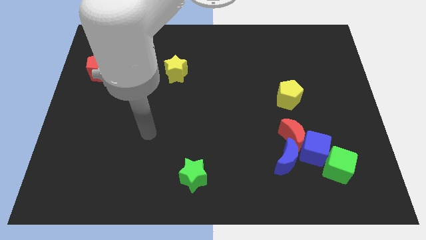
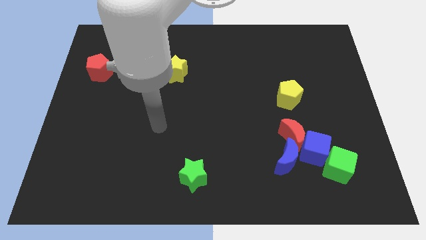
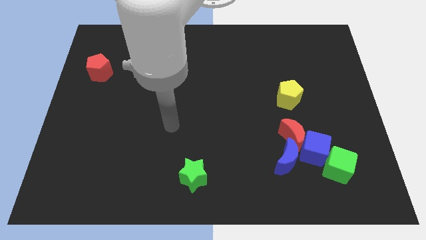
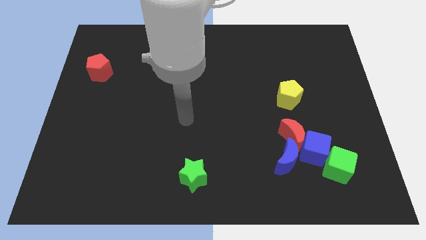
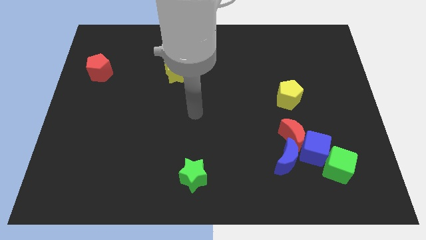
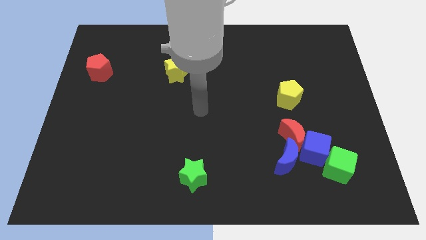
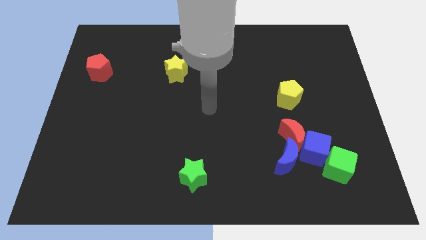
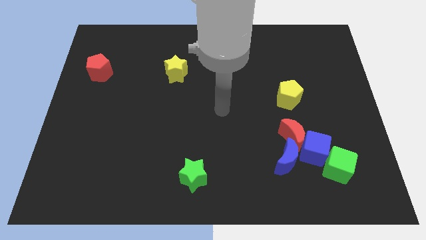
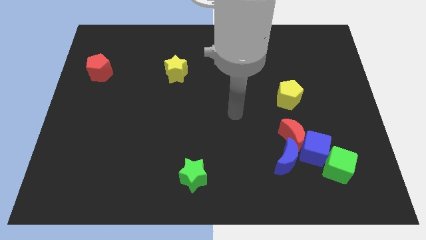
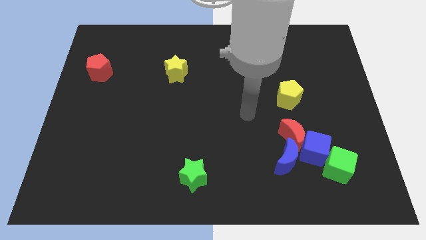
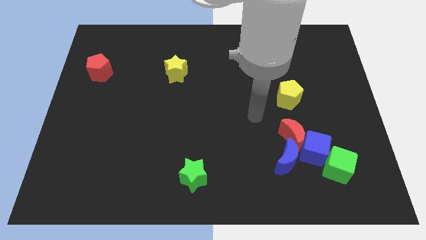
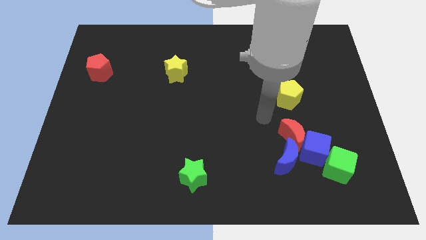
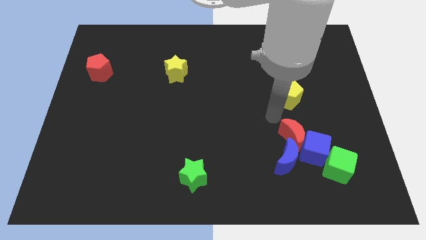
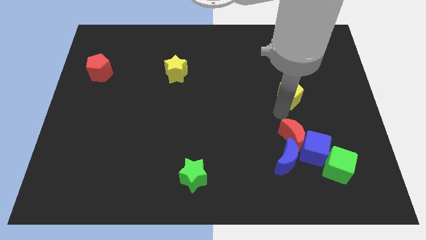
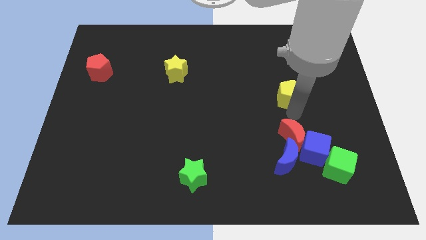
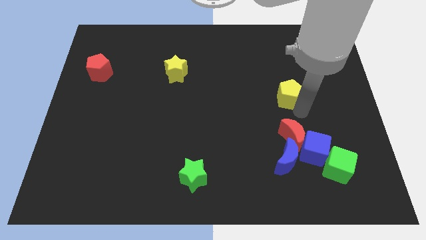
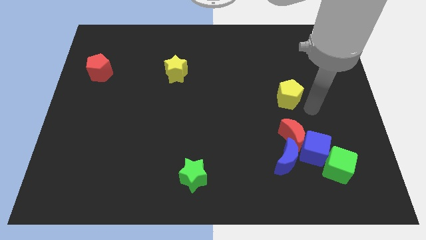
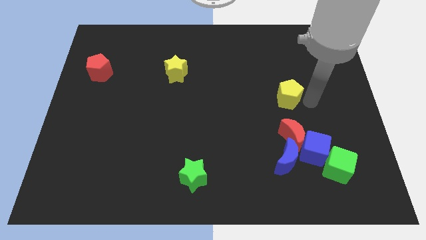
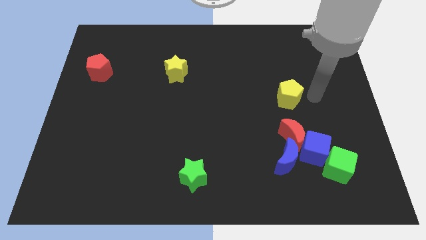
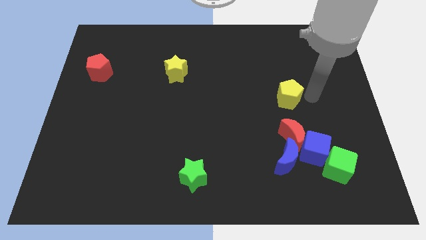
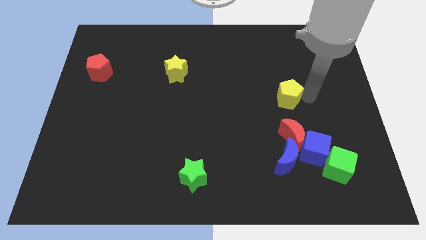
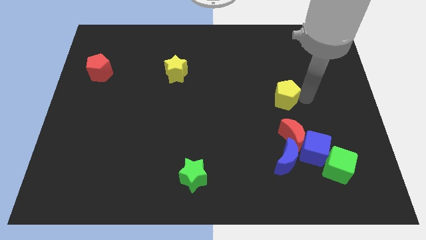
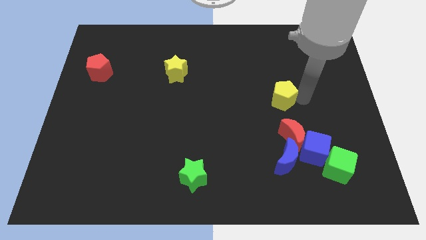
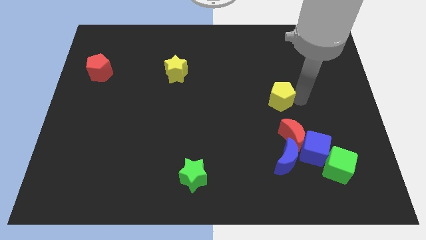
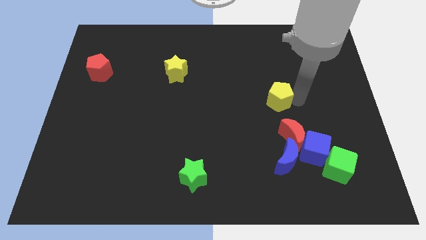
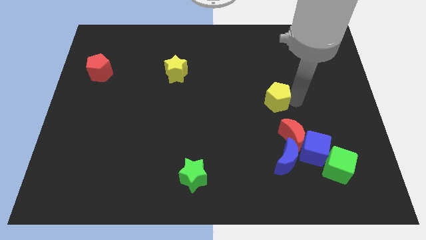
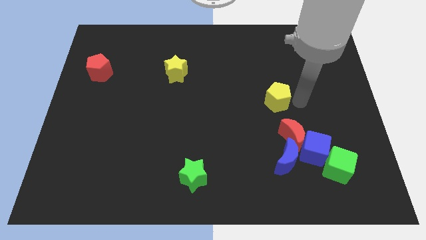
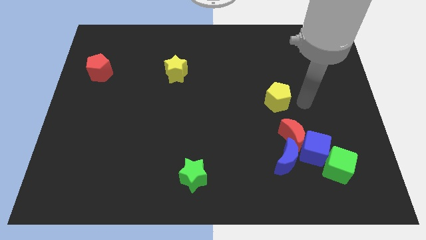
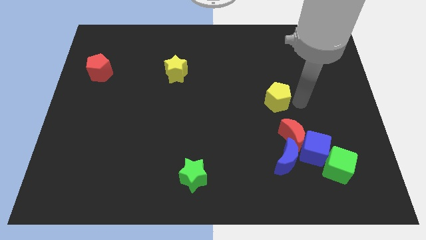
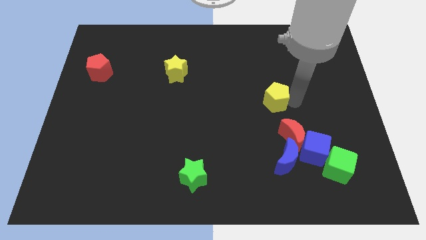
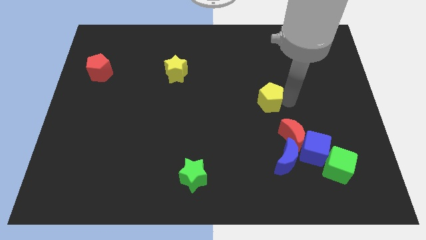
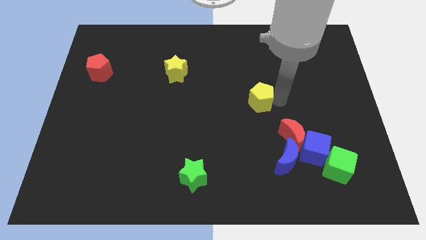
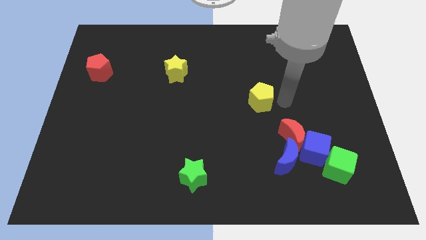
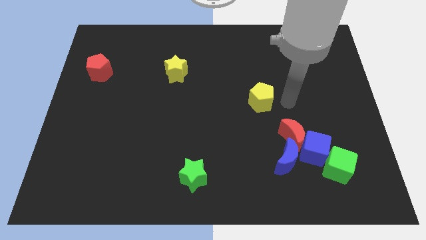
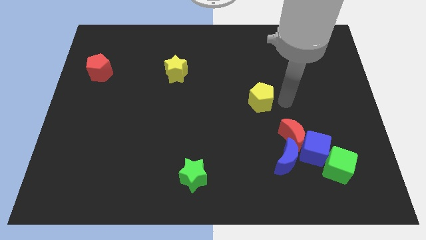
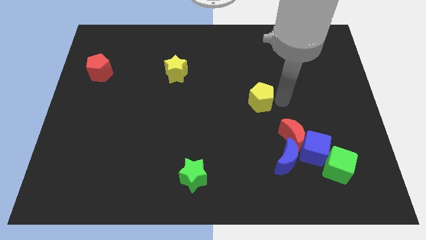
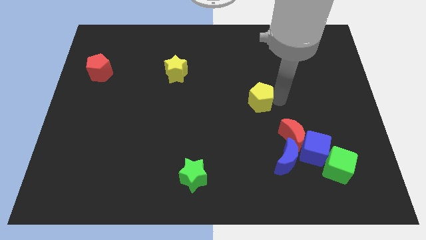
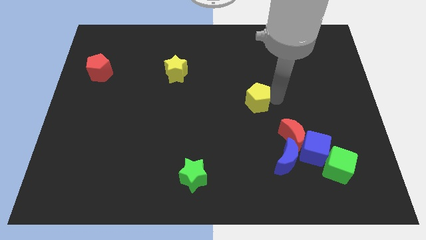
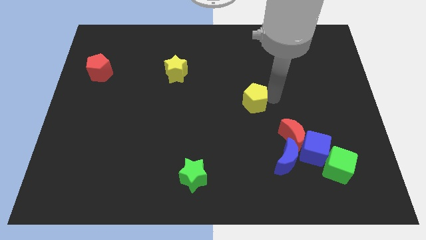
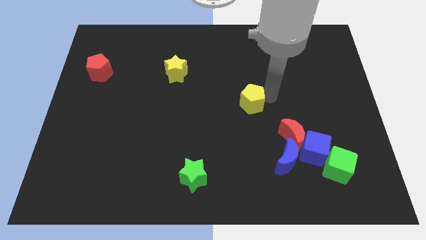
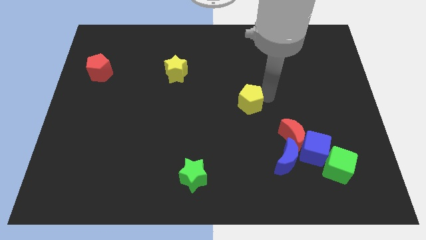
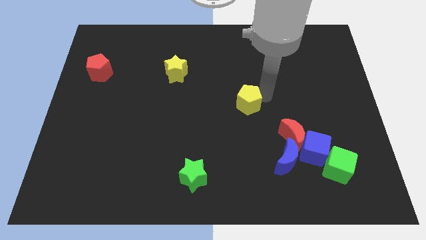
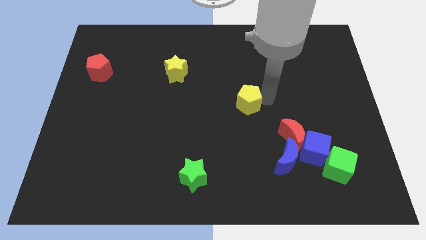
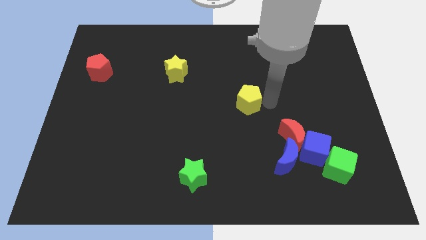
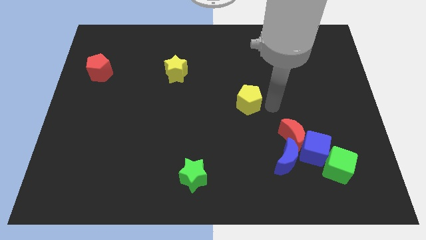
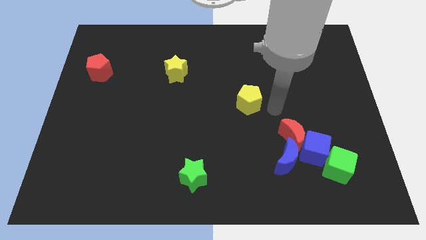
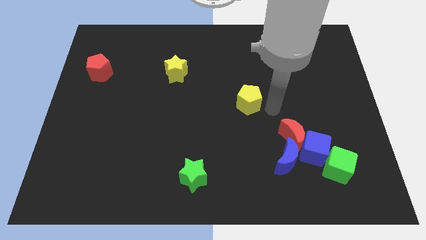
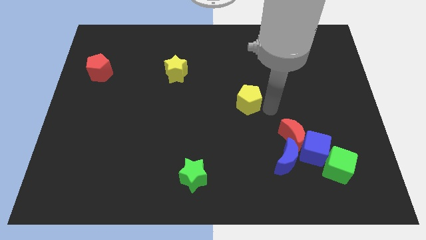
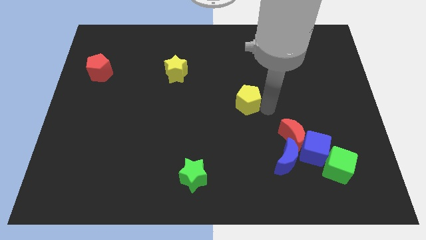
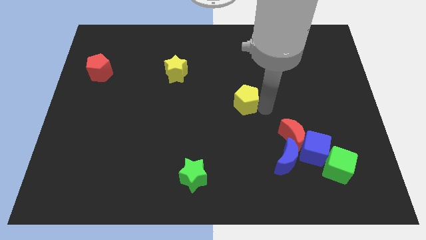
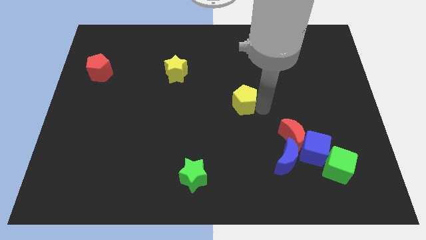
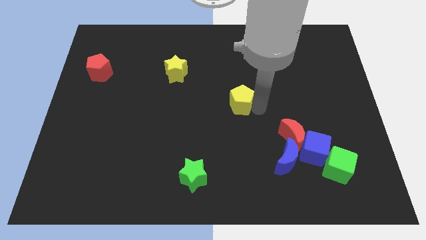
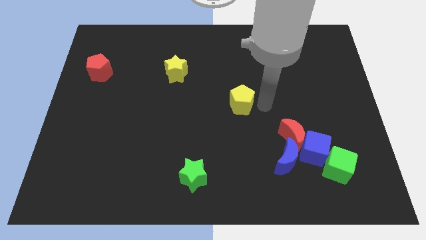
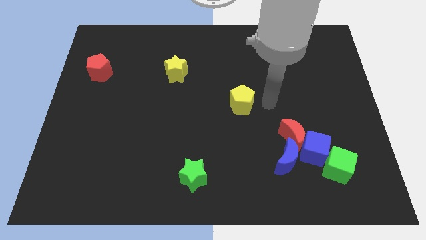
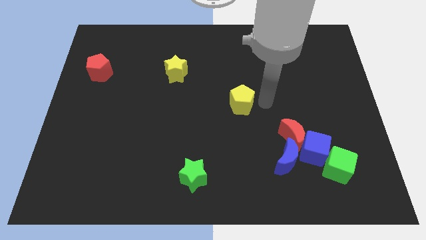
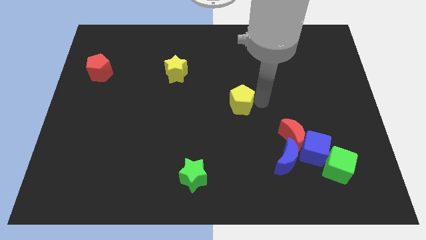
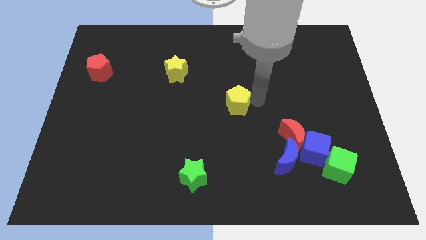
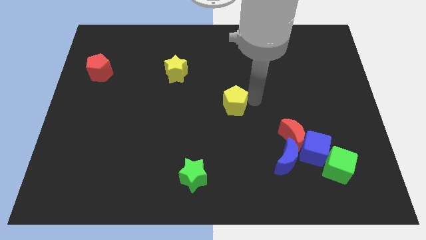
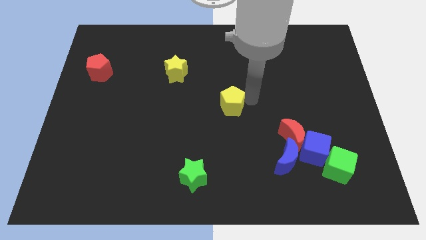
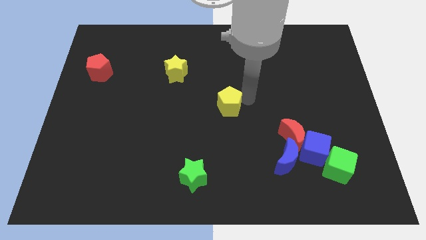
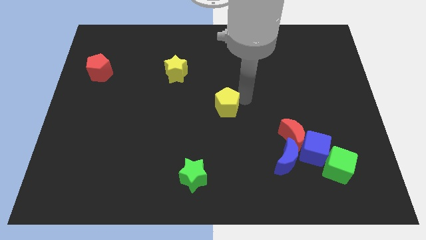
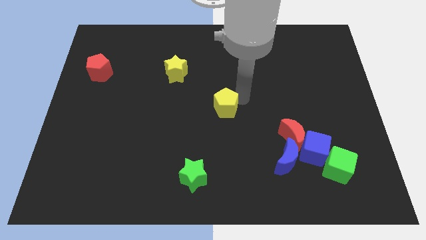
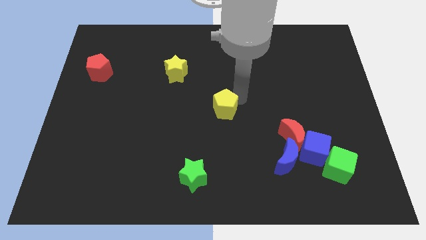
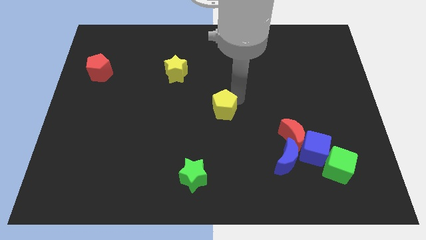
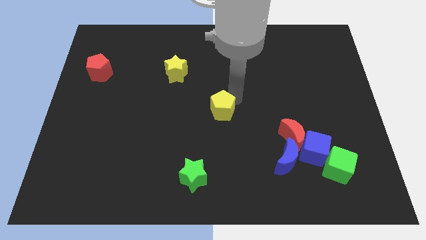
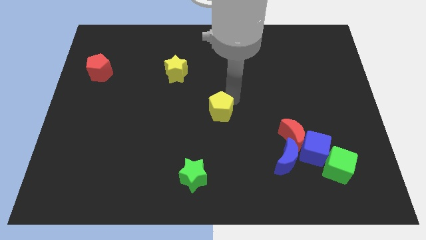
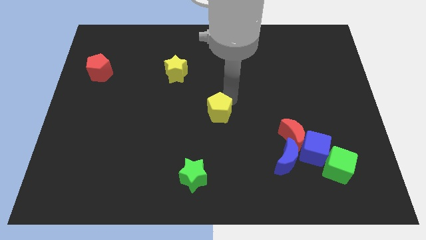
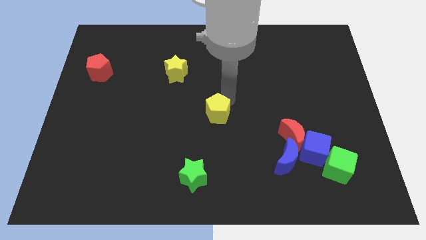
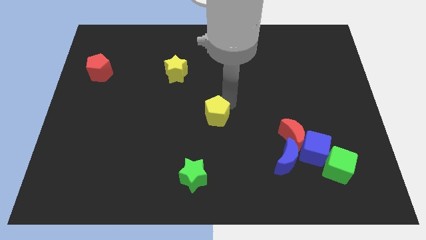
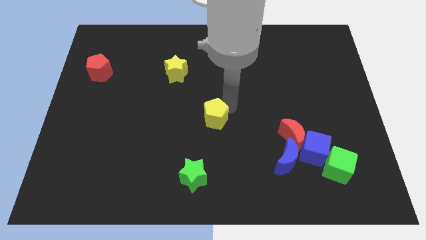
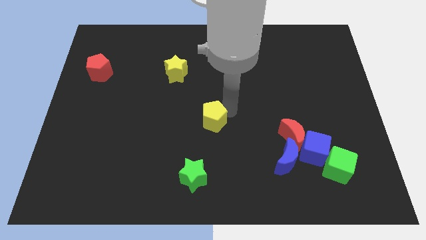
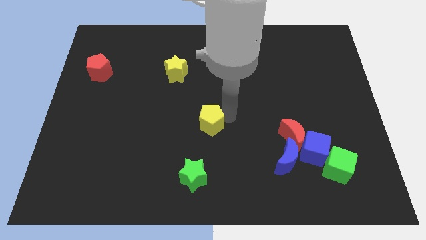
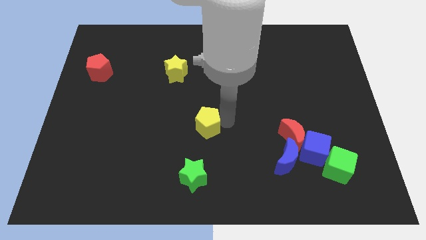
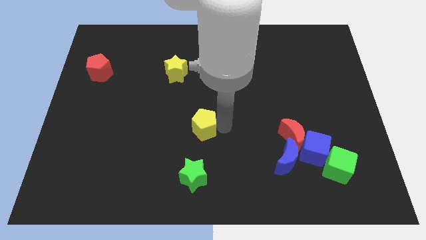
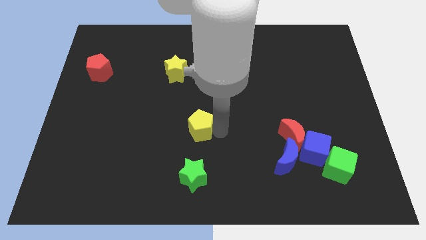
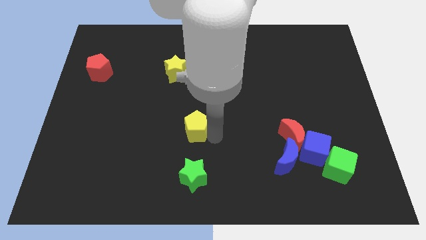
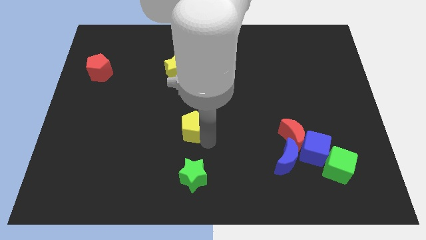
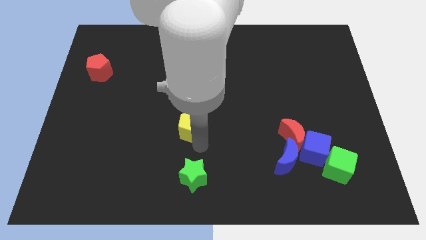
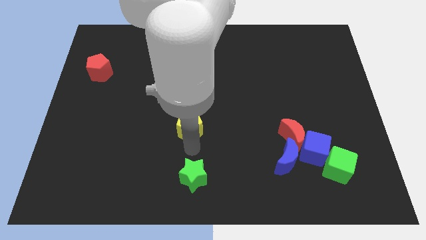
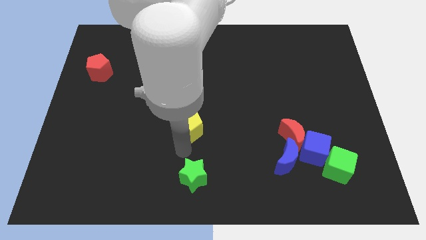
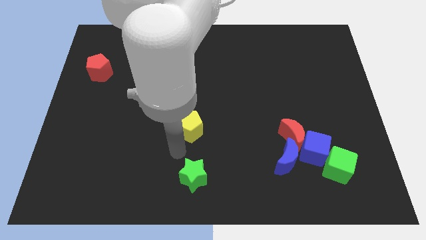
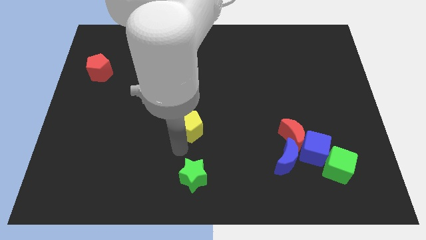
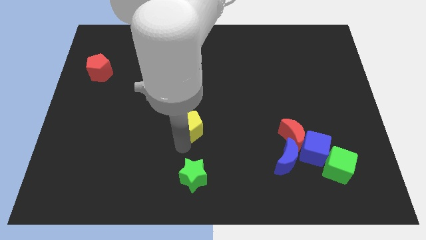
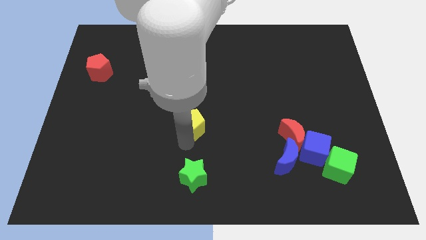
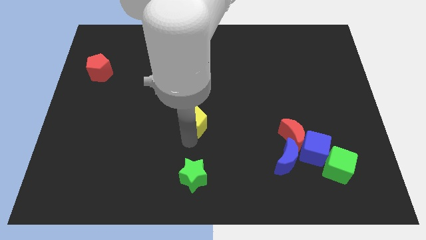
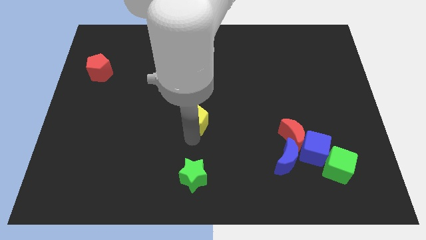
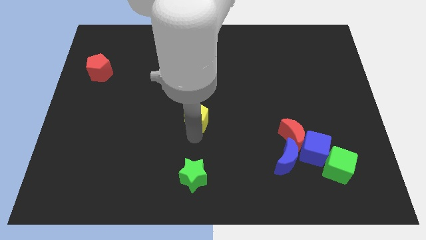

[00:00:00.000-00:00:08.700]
push the yellow pentagon left
